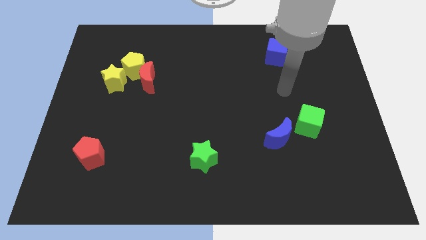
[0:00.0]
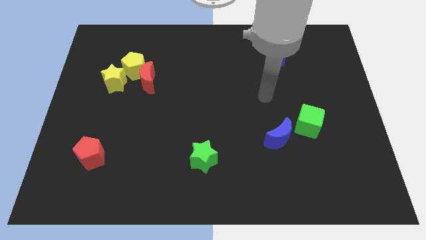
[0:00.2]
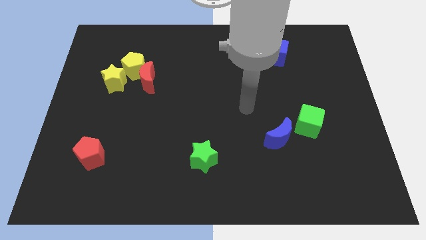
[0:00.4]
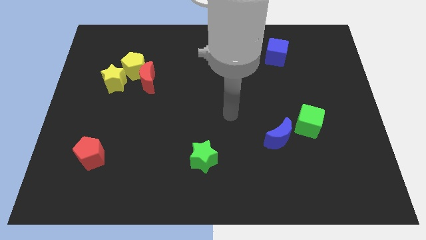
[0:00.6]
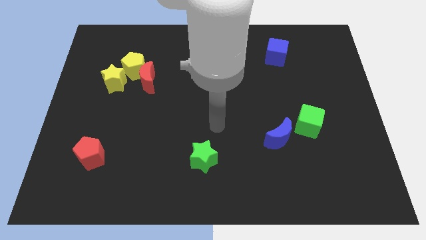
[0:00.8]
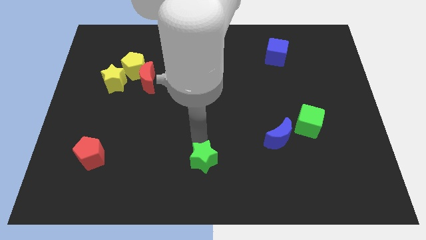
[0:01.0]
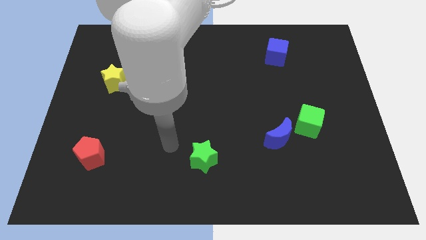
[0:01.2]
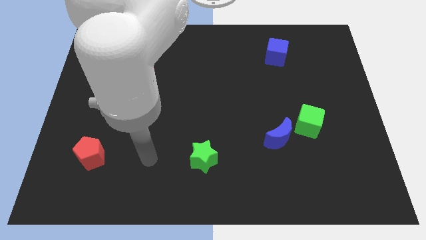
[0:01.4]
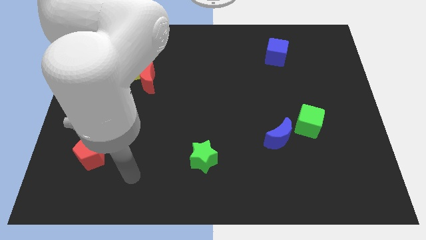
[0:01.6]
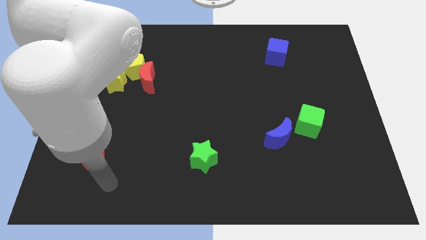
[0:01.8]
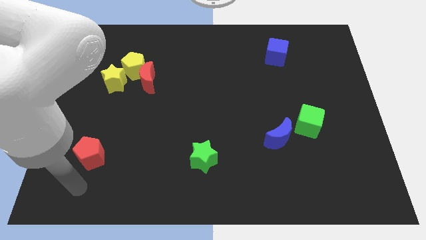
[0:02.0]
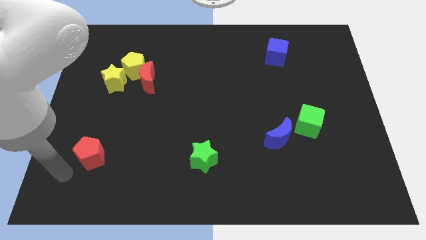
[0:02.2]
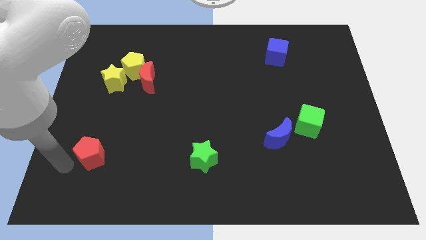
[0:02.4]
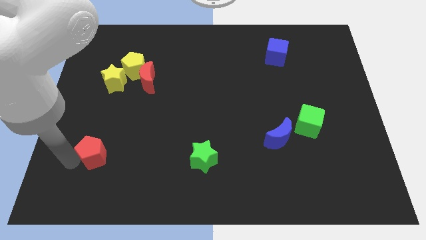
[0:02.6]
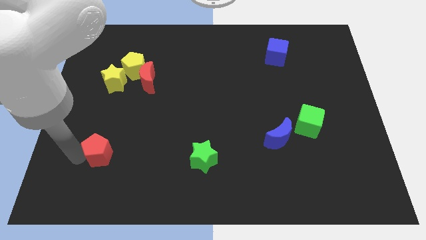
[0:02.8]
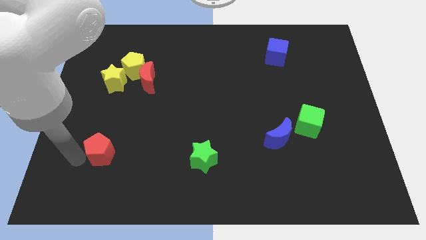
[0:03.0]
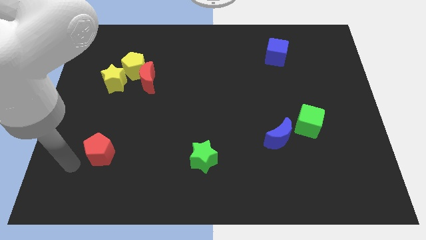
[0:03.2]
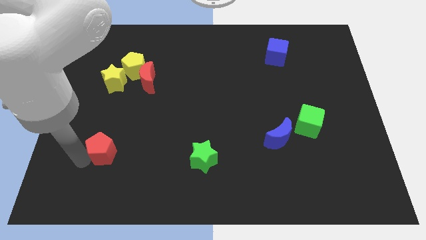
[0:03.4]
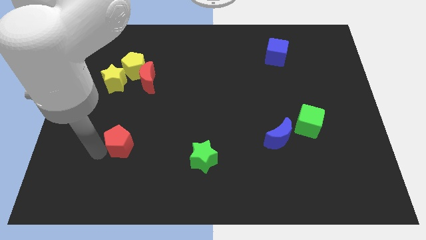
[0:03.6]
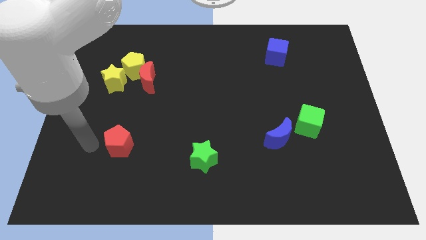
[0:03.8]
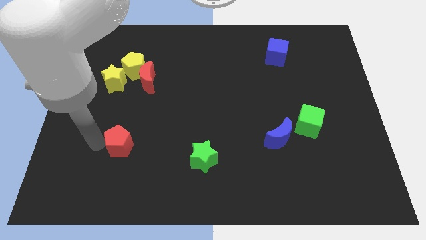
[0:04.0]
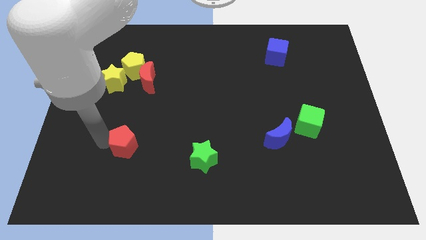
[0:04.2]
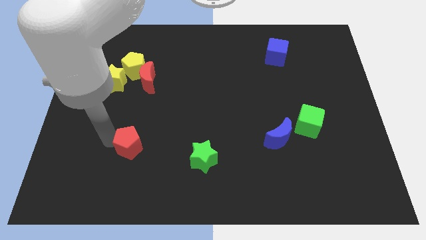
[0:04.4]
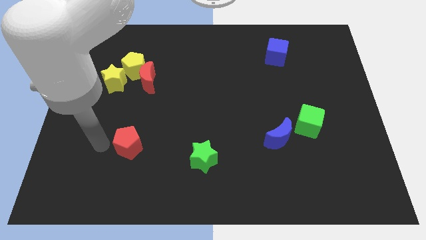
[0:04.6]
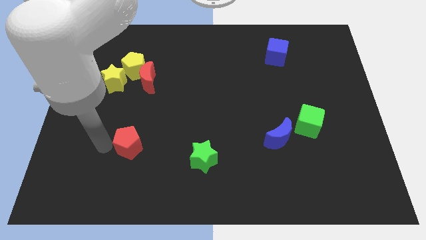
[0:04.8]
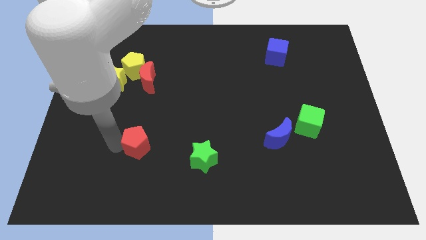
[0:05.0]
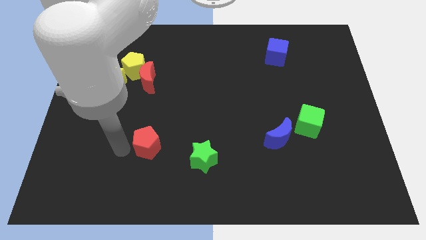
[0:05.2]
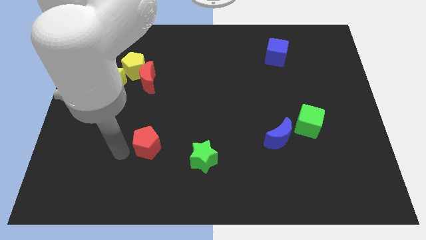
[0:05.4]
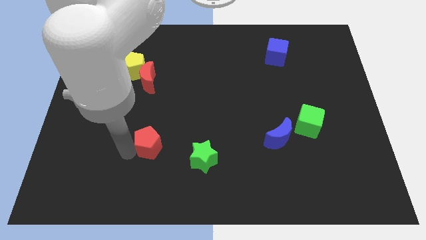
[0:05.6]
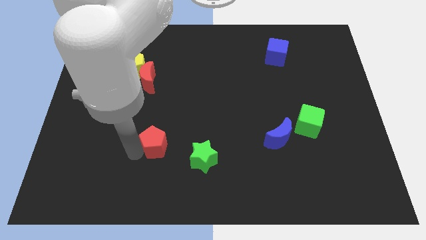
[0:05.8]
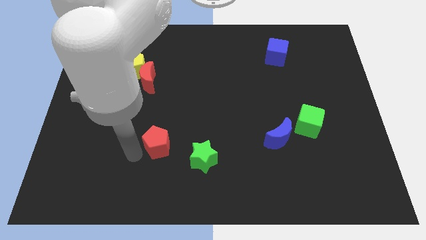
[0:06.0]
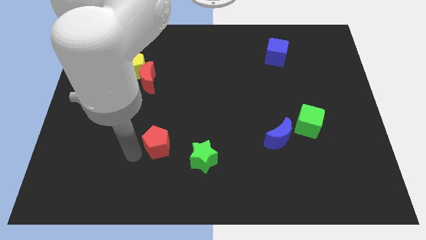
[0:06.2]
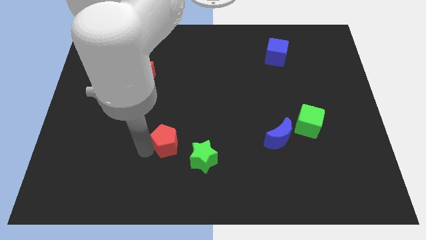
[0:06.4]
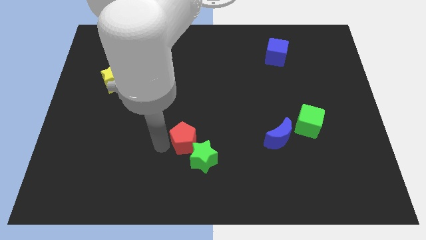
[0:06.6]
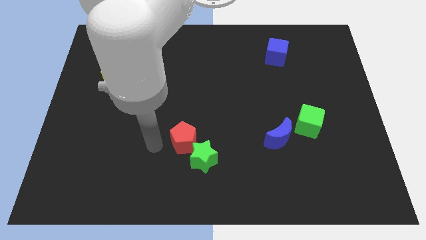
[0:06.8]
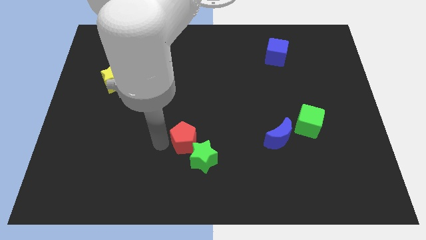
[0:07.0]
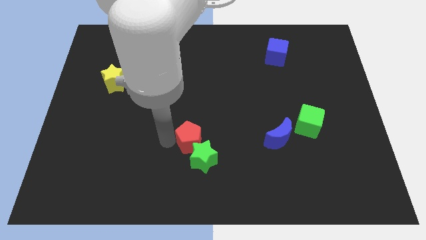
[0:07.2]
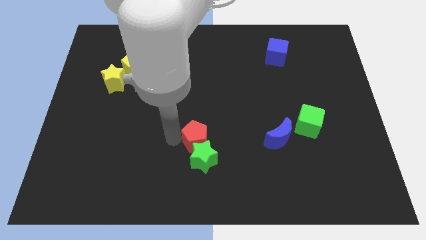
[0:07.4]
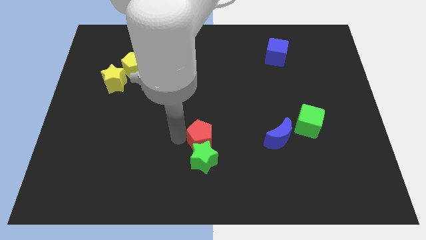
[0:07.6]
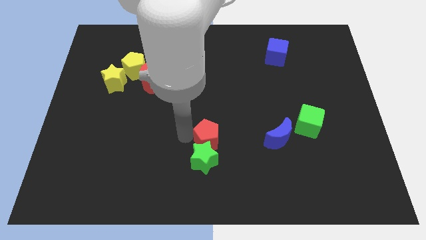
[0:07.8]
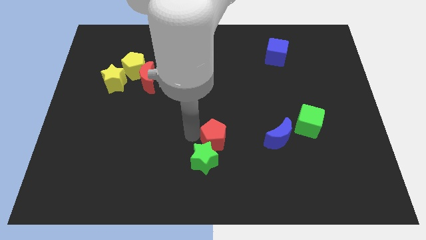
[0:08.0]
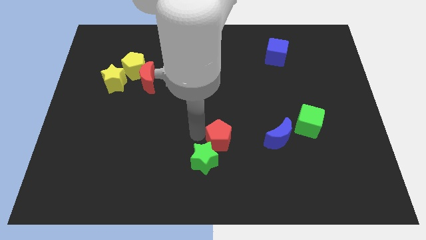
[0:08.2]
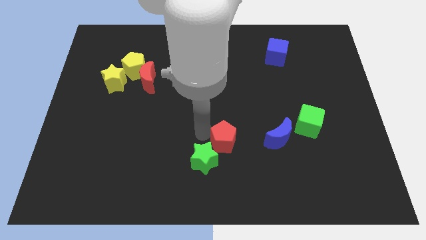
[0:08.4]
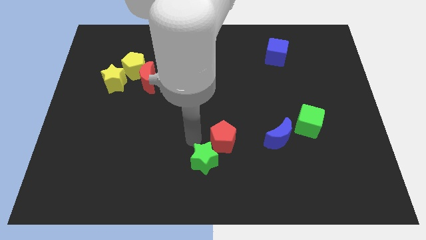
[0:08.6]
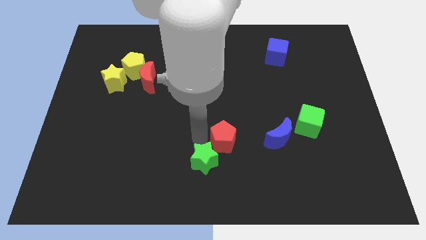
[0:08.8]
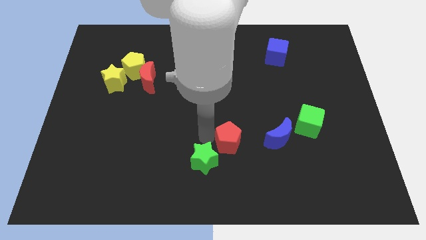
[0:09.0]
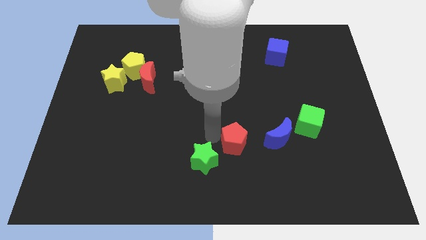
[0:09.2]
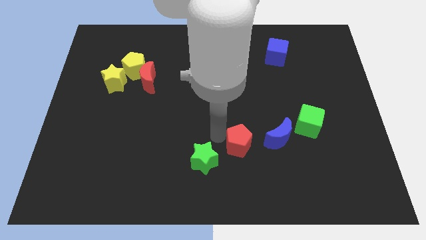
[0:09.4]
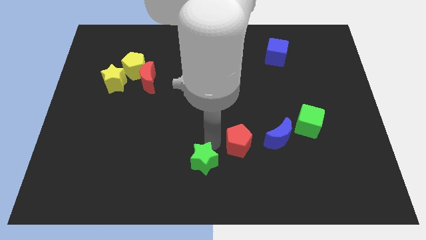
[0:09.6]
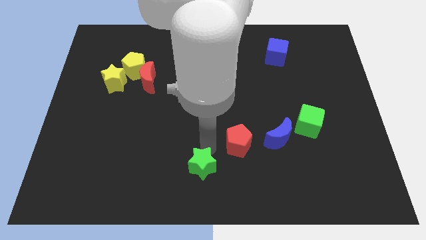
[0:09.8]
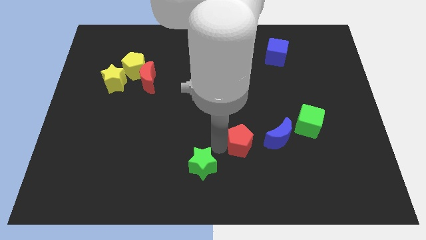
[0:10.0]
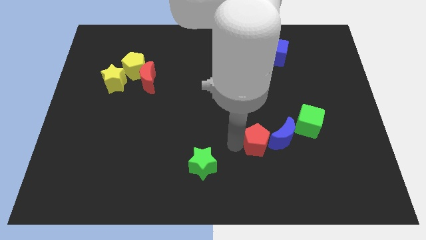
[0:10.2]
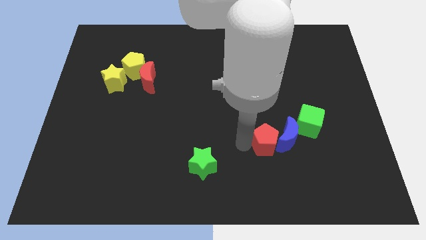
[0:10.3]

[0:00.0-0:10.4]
move the red pentagon to the blue moon

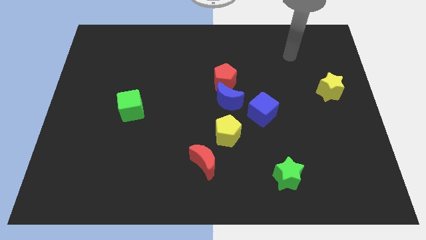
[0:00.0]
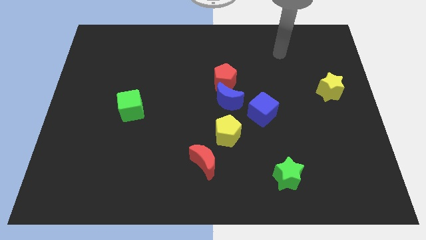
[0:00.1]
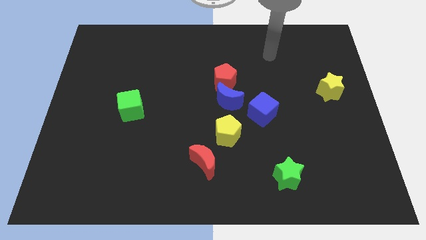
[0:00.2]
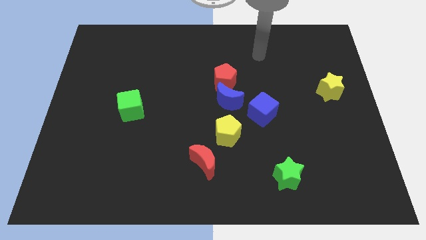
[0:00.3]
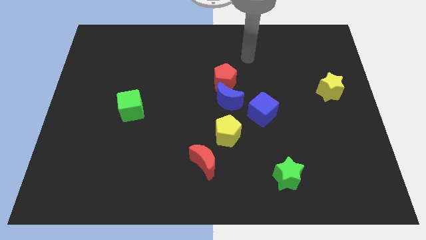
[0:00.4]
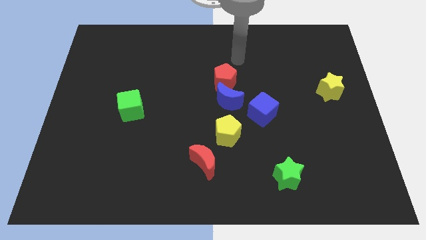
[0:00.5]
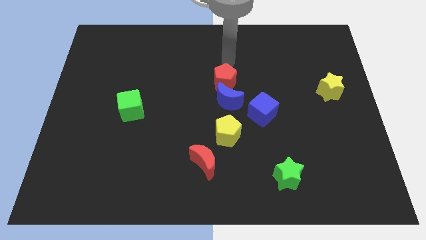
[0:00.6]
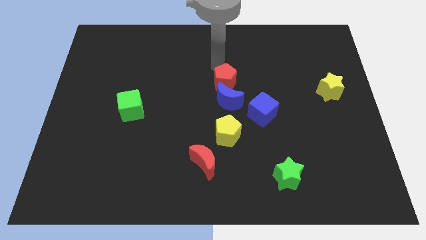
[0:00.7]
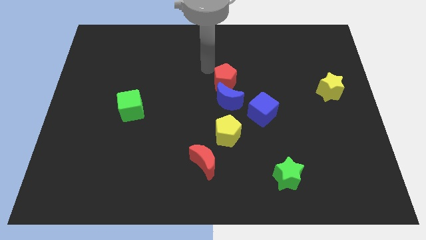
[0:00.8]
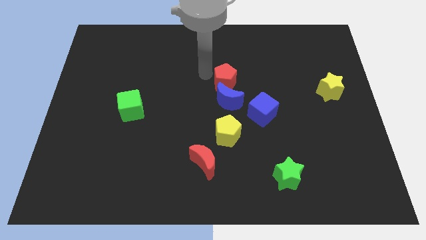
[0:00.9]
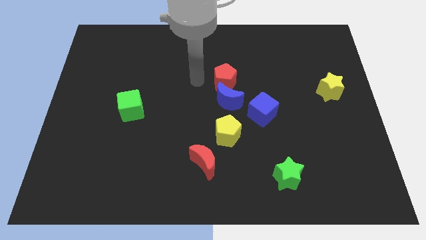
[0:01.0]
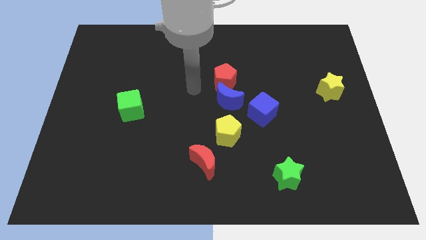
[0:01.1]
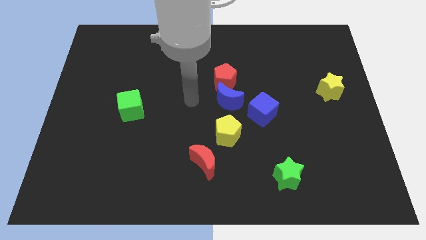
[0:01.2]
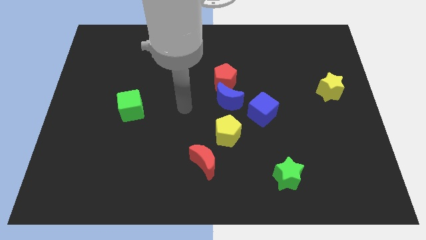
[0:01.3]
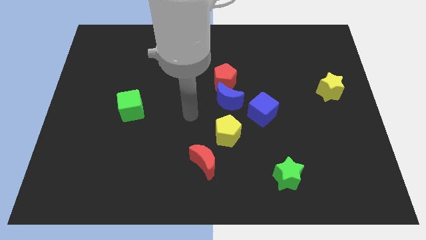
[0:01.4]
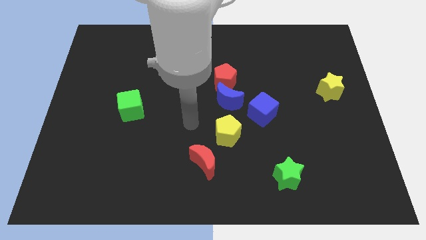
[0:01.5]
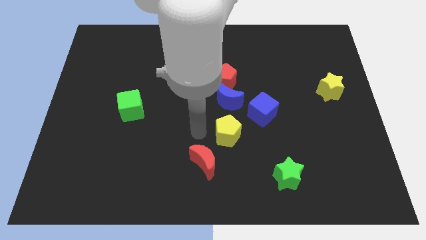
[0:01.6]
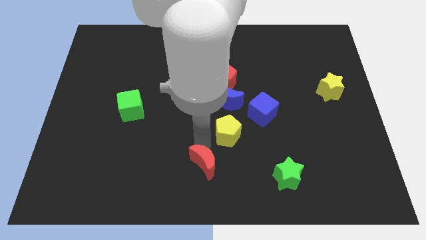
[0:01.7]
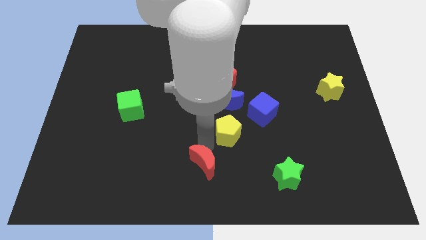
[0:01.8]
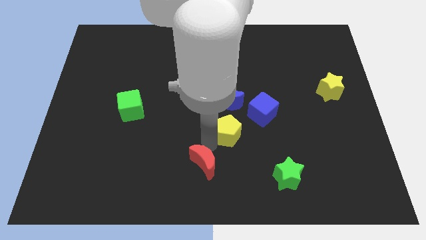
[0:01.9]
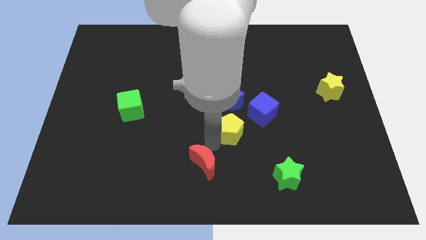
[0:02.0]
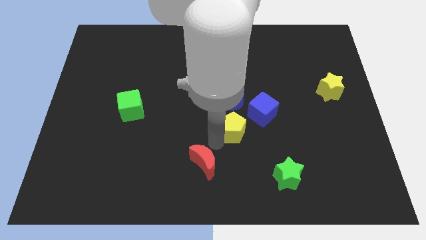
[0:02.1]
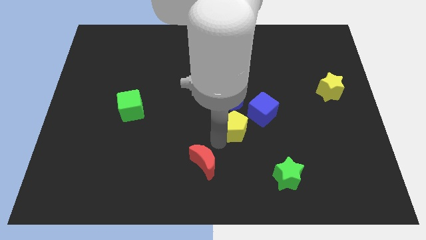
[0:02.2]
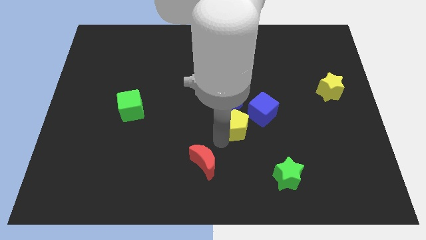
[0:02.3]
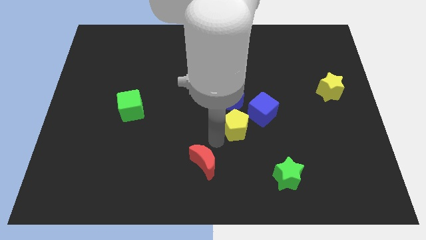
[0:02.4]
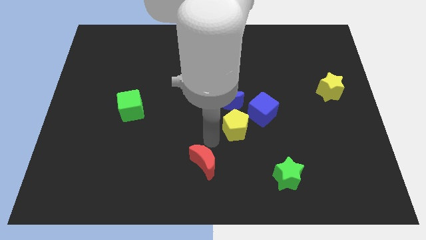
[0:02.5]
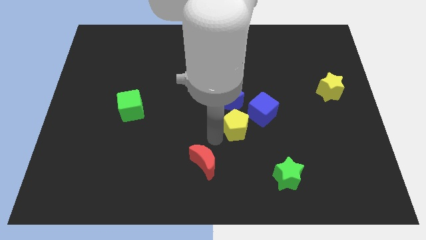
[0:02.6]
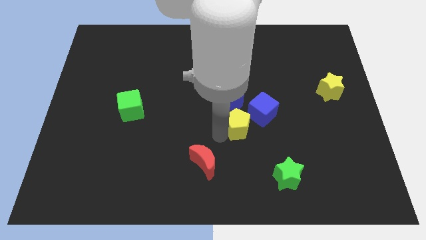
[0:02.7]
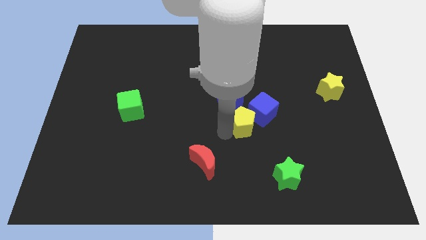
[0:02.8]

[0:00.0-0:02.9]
slide the yellow pentagon close to the blue cube
